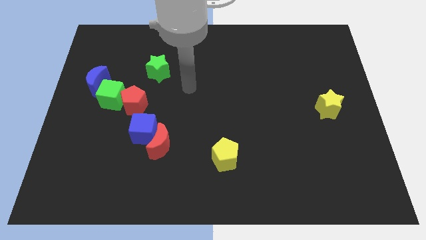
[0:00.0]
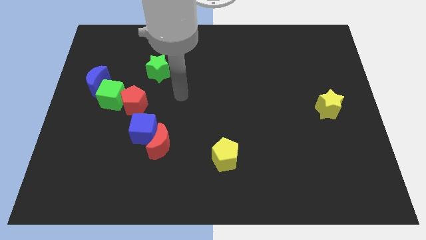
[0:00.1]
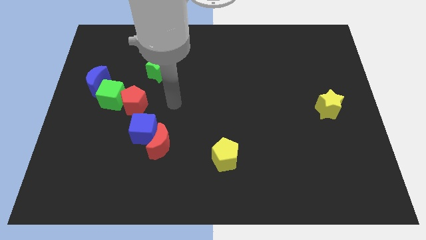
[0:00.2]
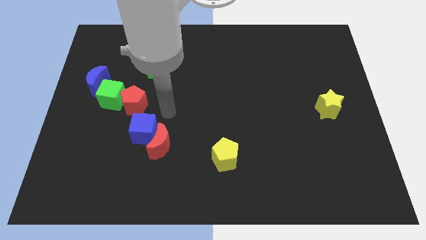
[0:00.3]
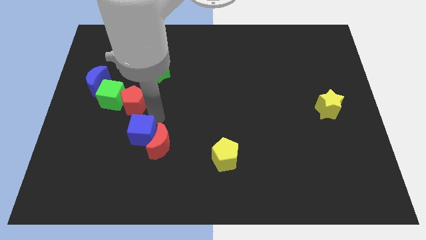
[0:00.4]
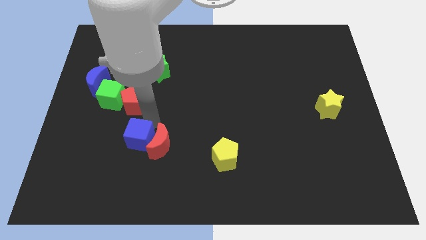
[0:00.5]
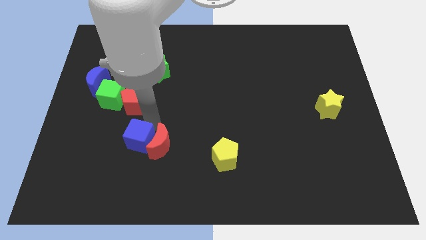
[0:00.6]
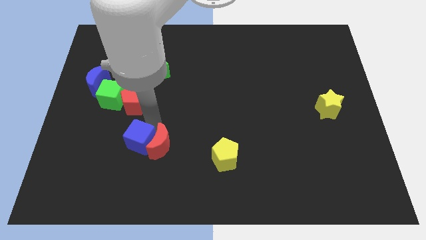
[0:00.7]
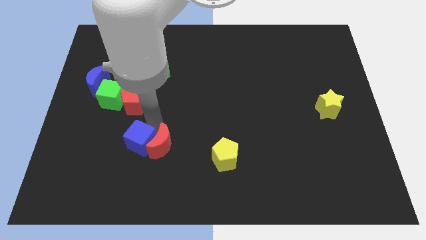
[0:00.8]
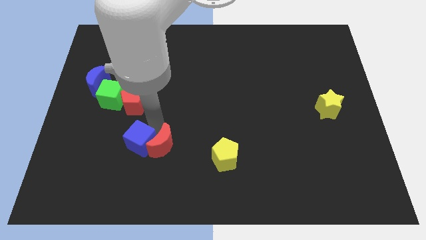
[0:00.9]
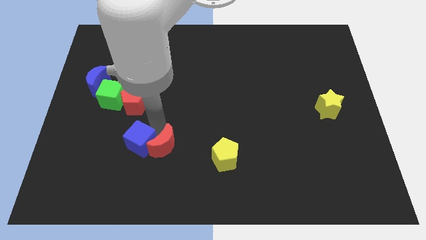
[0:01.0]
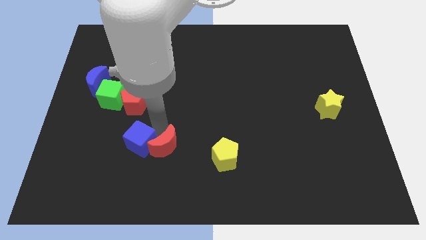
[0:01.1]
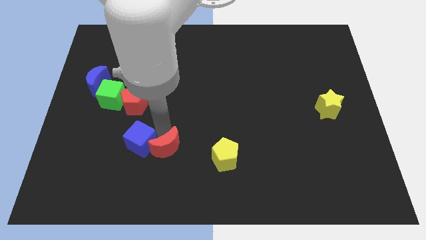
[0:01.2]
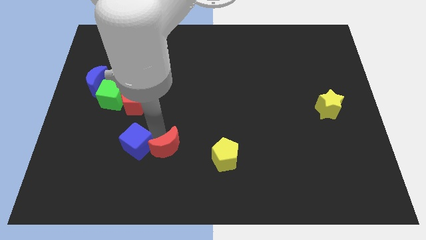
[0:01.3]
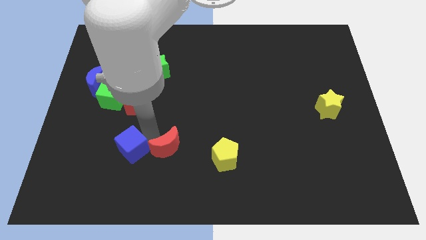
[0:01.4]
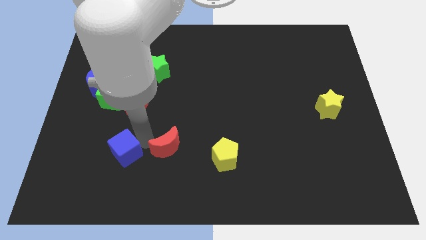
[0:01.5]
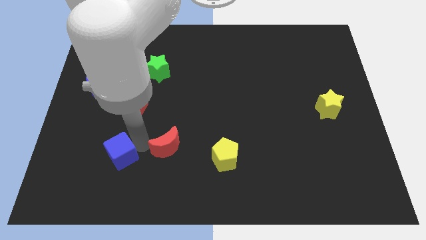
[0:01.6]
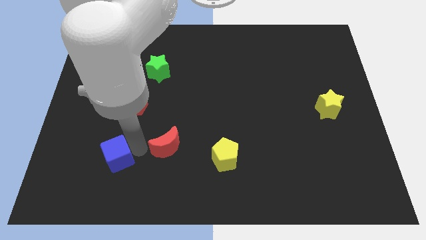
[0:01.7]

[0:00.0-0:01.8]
move the red moon away from the blue cube

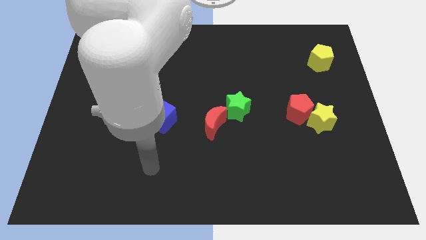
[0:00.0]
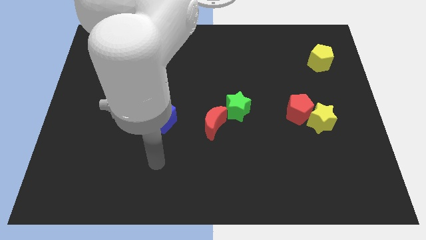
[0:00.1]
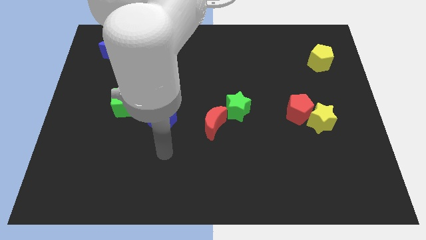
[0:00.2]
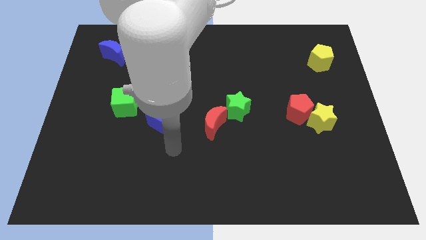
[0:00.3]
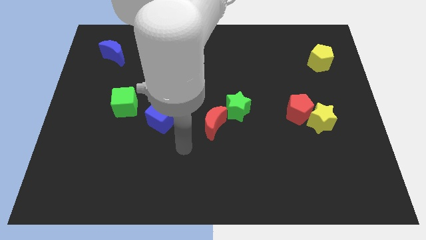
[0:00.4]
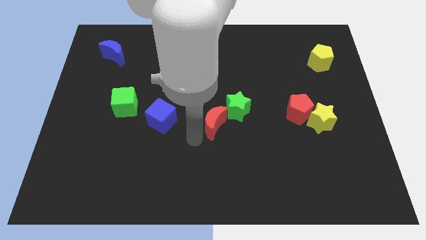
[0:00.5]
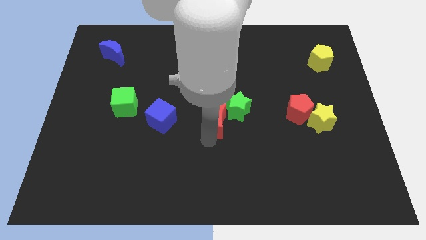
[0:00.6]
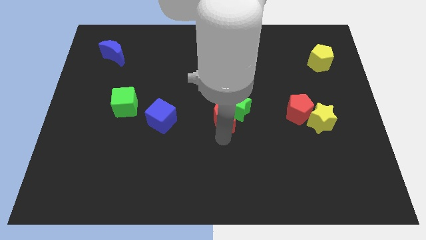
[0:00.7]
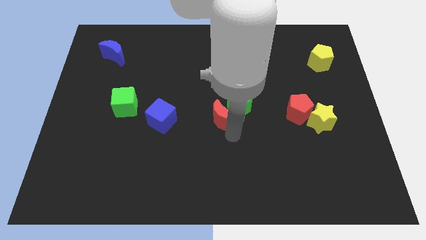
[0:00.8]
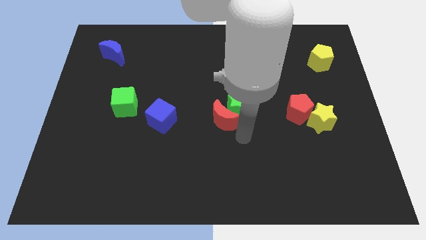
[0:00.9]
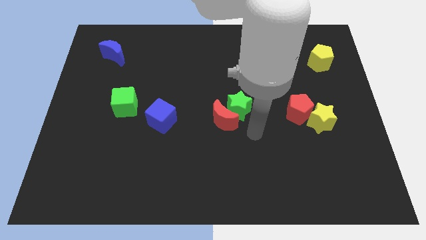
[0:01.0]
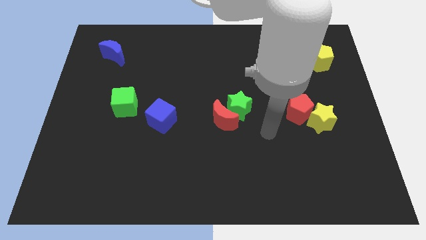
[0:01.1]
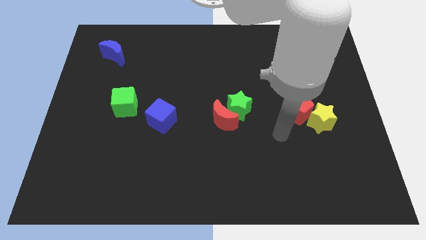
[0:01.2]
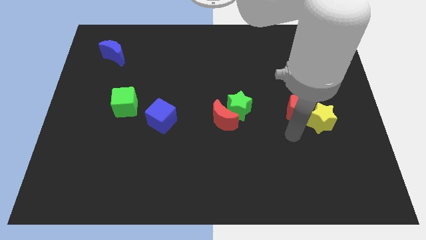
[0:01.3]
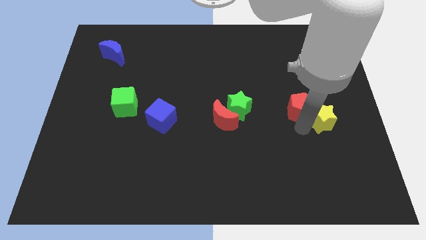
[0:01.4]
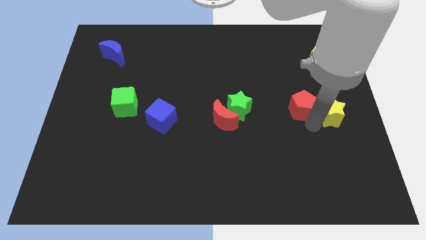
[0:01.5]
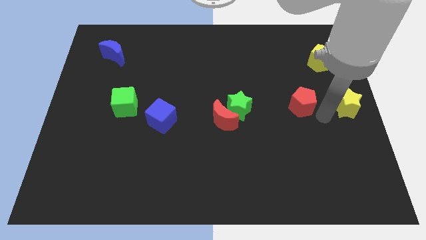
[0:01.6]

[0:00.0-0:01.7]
pull the red pentagon apart from the yellow star

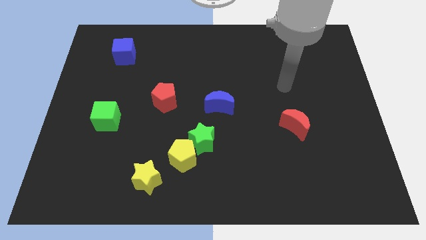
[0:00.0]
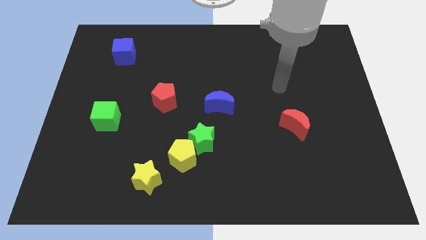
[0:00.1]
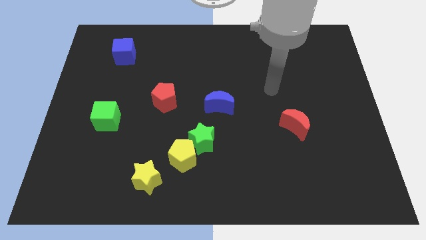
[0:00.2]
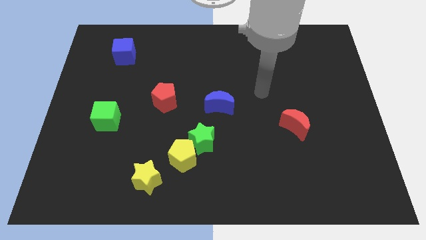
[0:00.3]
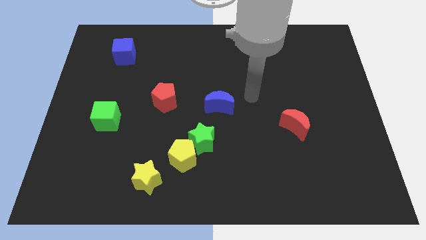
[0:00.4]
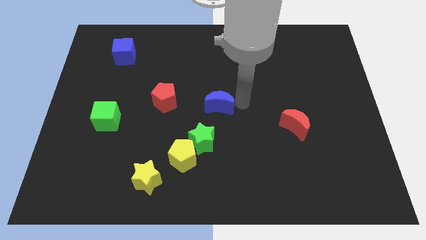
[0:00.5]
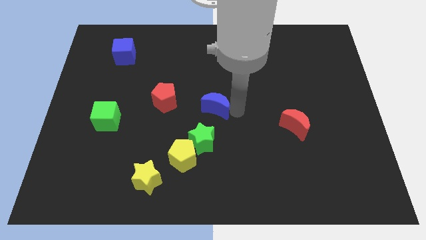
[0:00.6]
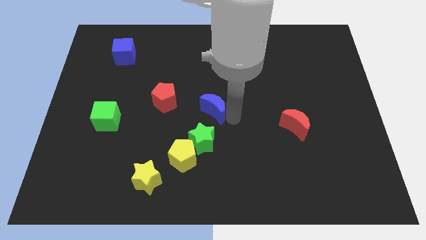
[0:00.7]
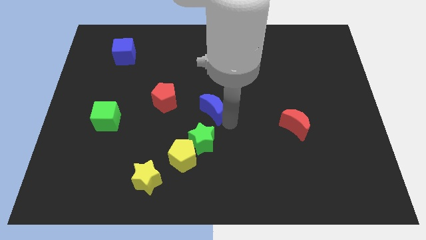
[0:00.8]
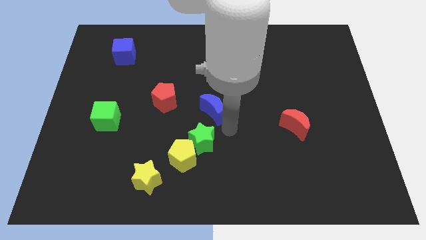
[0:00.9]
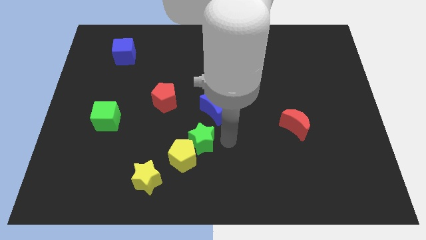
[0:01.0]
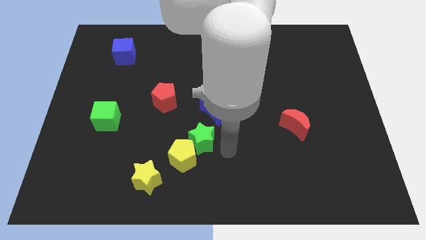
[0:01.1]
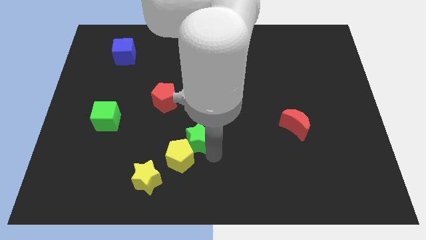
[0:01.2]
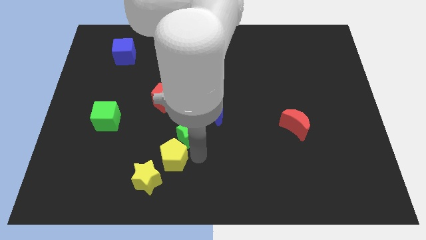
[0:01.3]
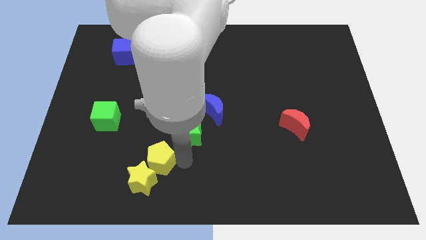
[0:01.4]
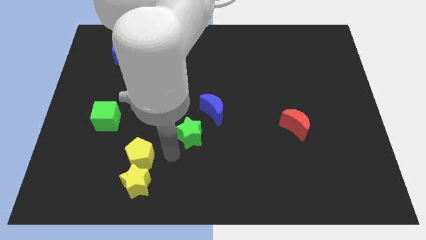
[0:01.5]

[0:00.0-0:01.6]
pull the green star apart from the yellow pentagon

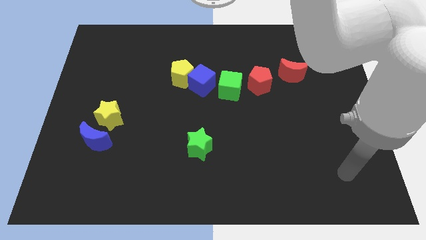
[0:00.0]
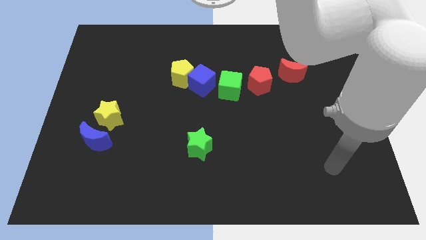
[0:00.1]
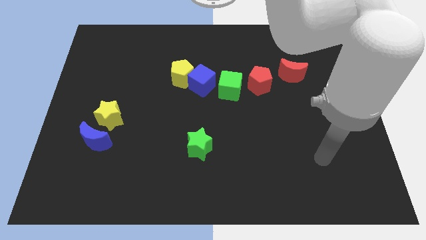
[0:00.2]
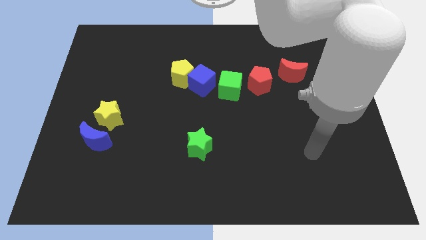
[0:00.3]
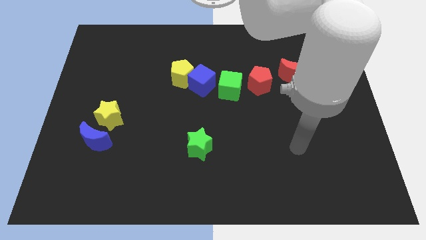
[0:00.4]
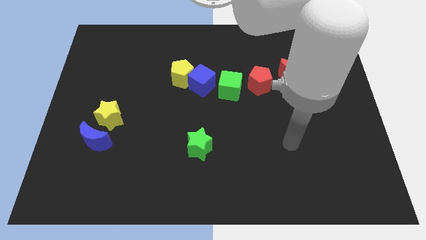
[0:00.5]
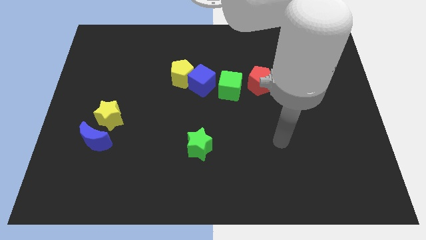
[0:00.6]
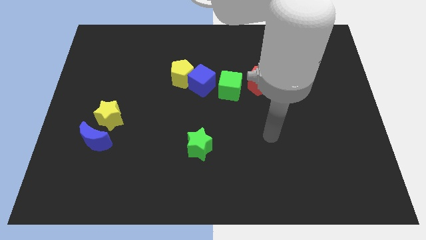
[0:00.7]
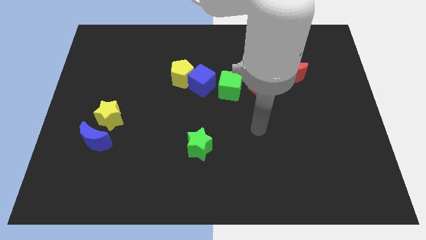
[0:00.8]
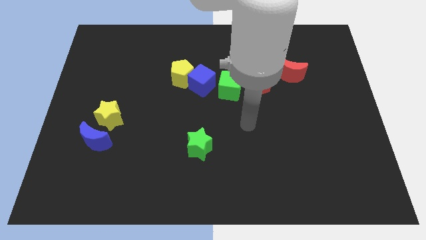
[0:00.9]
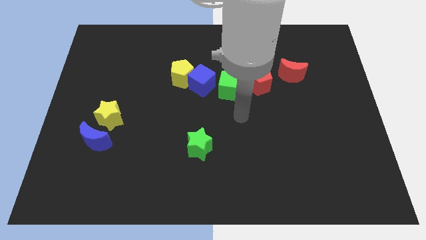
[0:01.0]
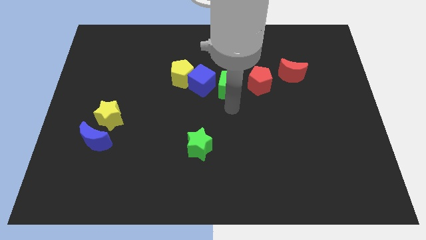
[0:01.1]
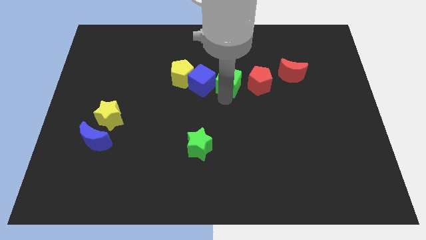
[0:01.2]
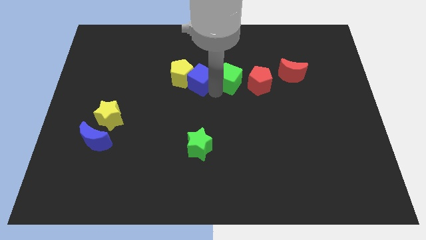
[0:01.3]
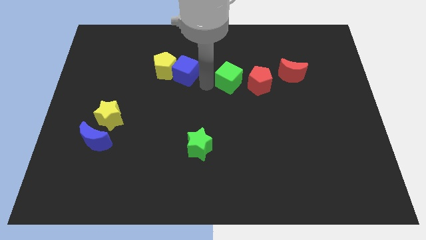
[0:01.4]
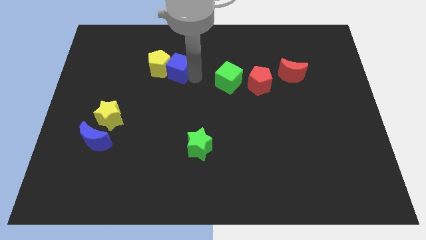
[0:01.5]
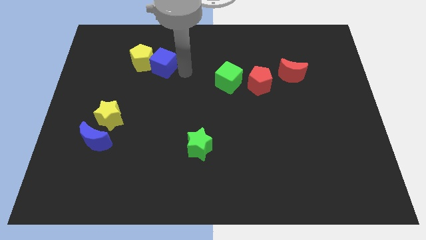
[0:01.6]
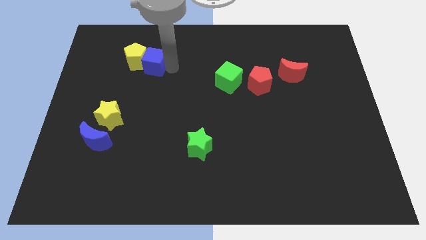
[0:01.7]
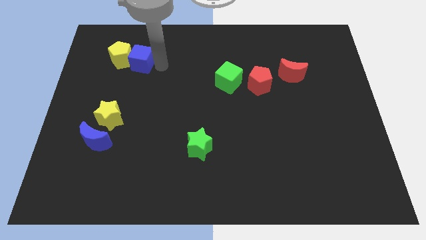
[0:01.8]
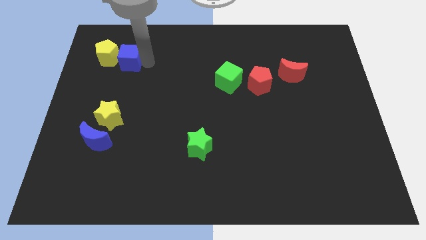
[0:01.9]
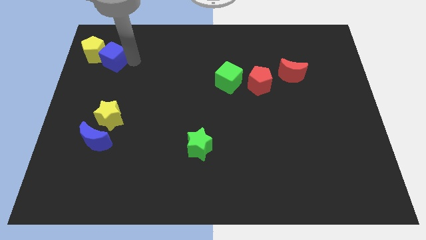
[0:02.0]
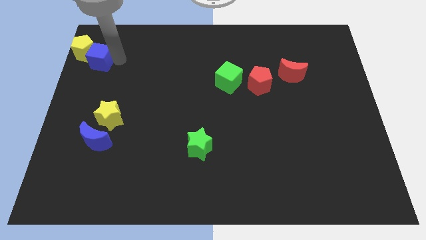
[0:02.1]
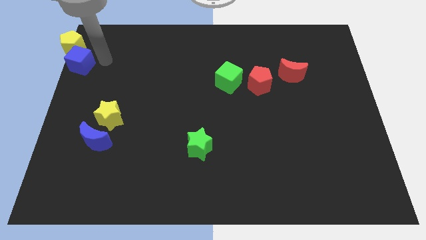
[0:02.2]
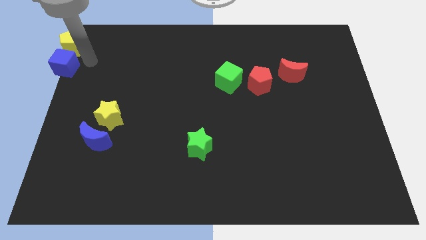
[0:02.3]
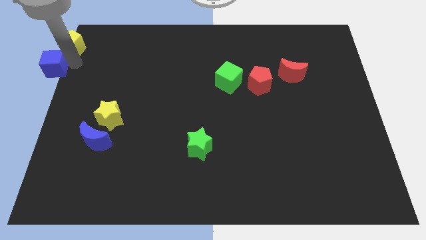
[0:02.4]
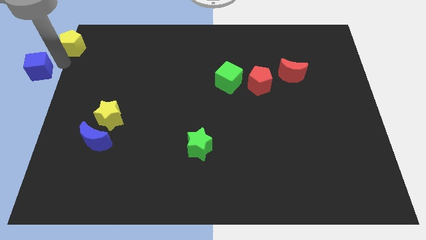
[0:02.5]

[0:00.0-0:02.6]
separate the yellow pentagon from the blue cube

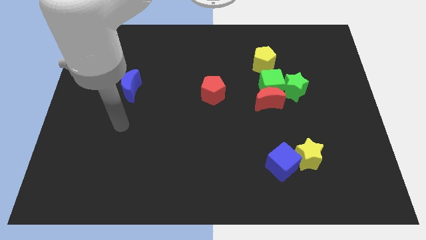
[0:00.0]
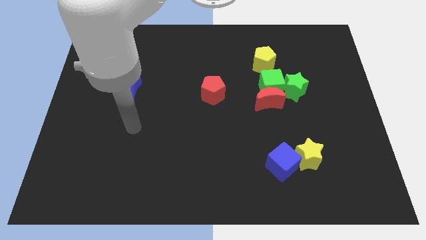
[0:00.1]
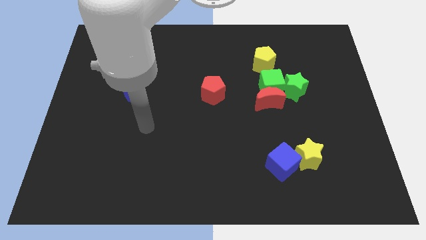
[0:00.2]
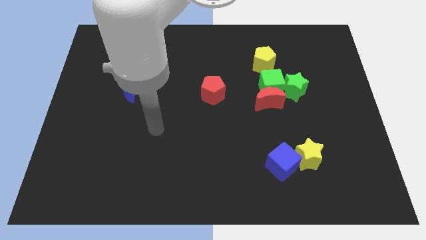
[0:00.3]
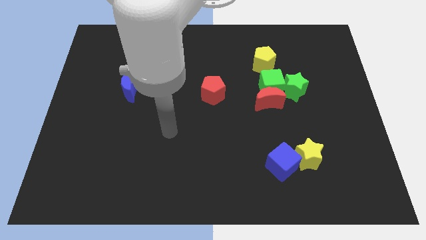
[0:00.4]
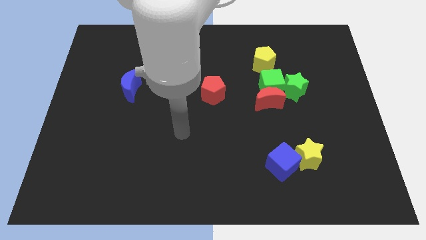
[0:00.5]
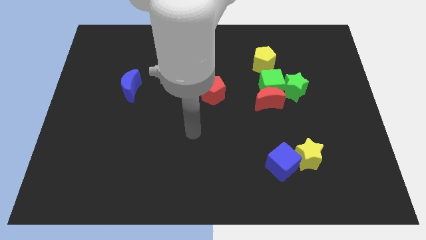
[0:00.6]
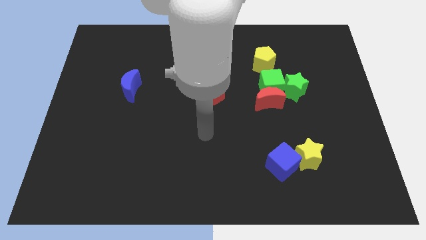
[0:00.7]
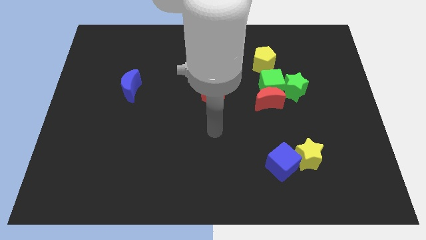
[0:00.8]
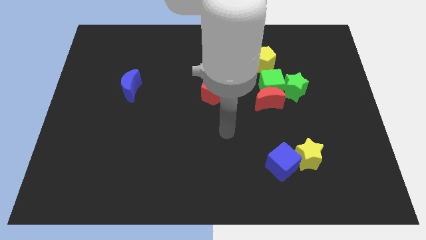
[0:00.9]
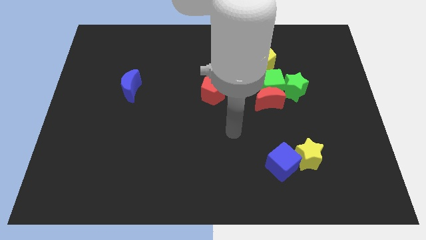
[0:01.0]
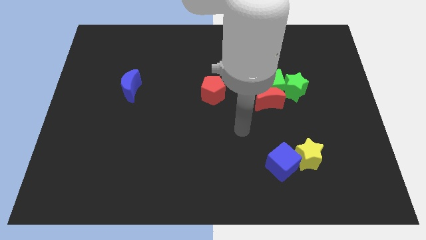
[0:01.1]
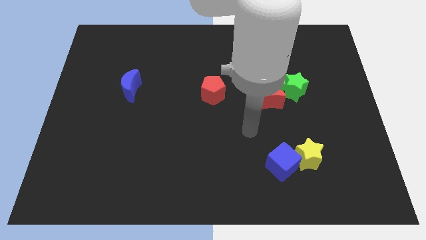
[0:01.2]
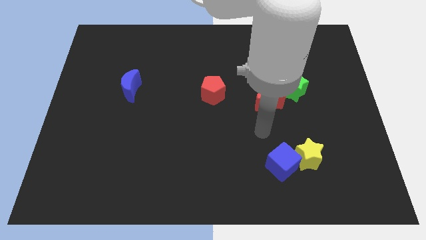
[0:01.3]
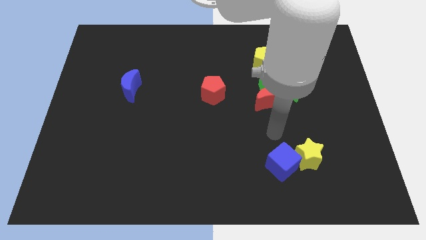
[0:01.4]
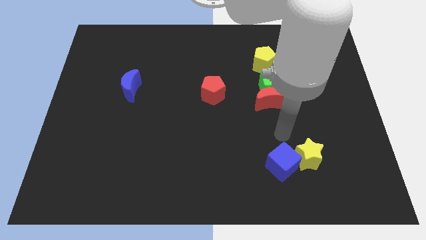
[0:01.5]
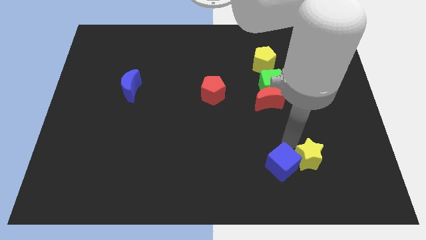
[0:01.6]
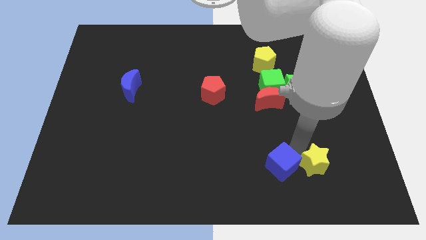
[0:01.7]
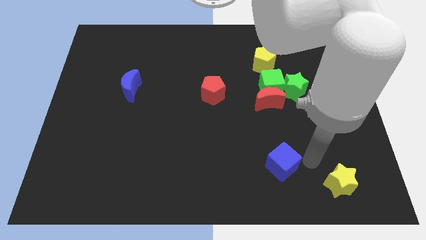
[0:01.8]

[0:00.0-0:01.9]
move the blue cube away from the yellow star
